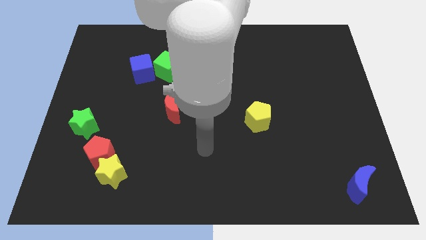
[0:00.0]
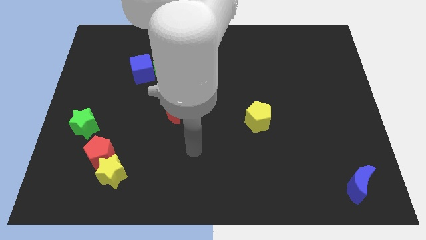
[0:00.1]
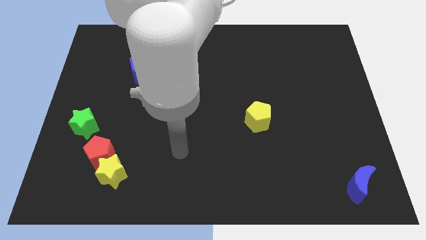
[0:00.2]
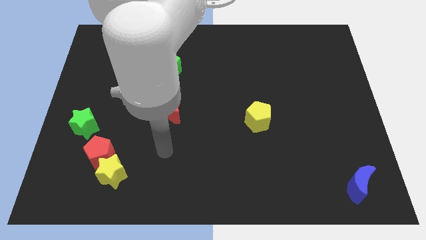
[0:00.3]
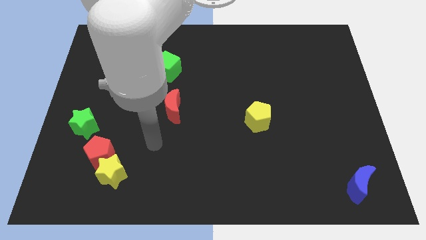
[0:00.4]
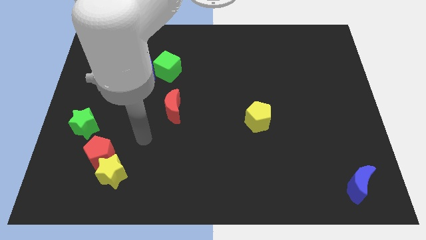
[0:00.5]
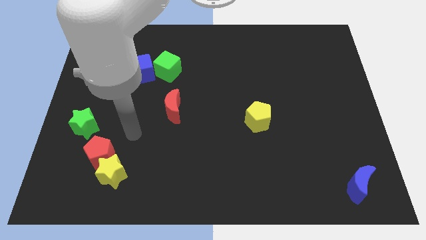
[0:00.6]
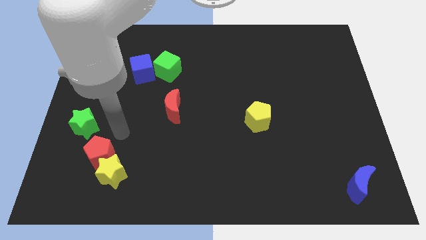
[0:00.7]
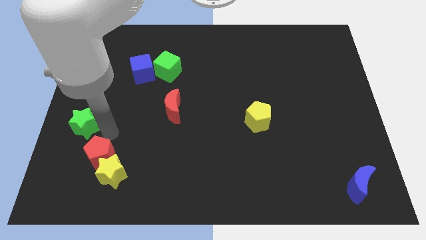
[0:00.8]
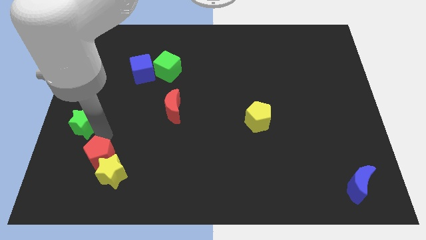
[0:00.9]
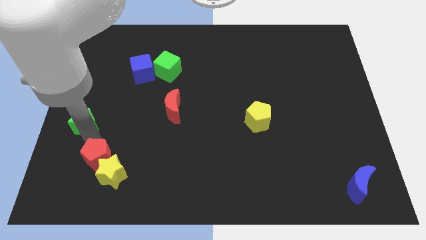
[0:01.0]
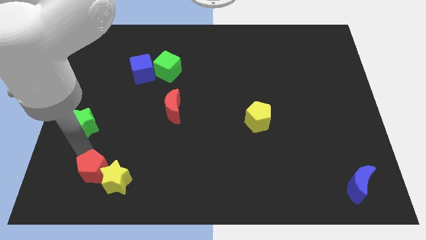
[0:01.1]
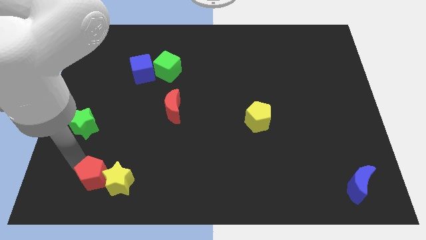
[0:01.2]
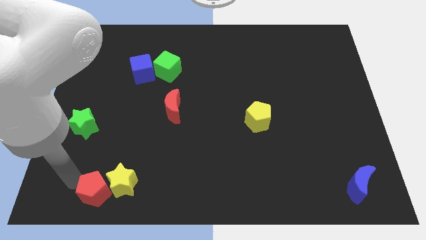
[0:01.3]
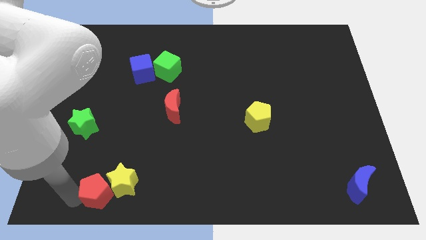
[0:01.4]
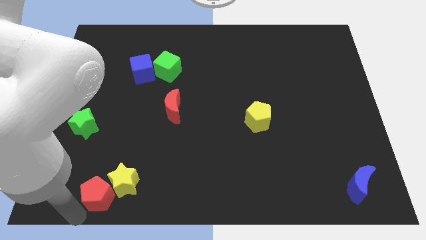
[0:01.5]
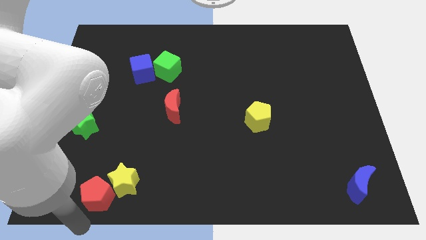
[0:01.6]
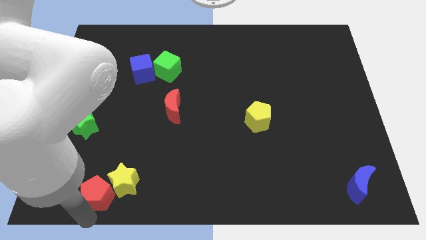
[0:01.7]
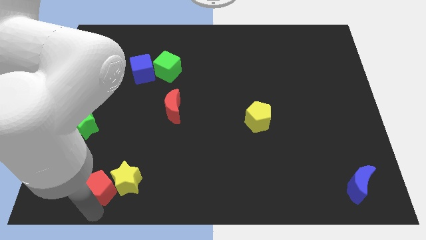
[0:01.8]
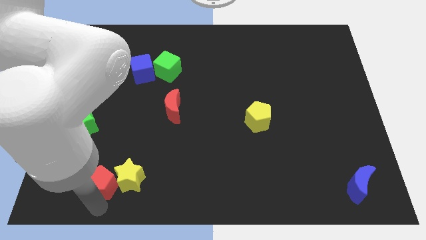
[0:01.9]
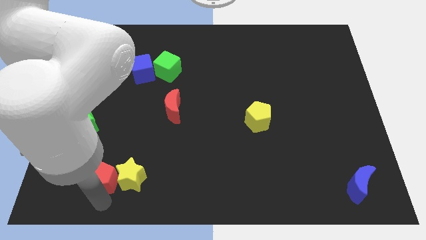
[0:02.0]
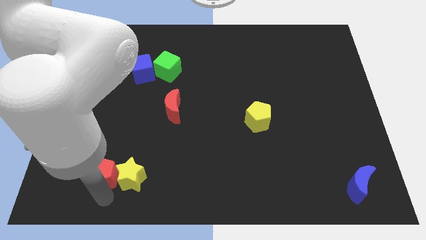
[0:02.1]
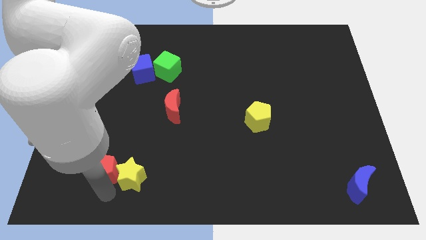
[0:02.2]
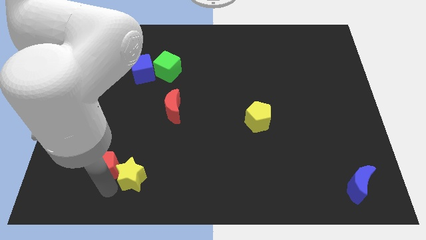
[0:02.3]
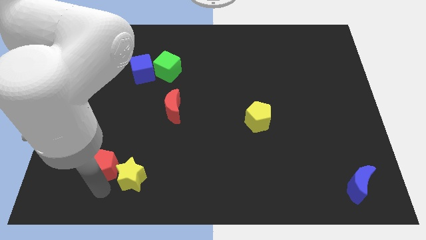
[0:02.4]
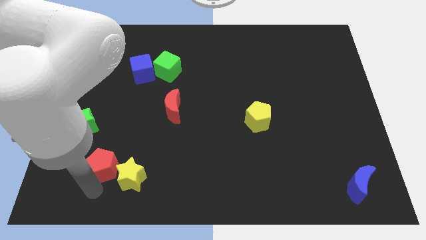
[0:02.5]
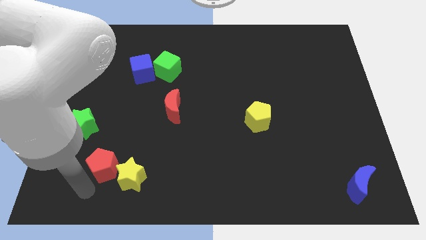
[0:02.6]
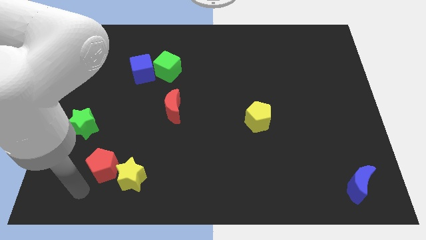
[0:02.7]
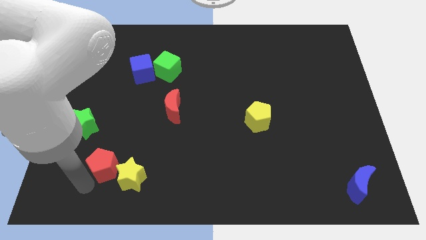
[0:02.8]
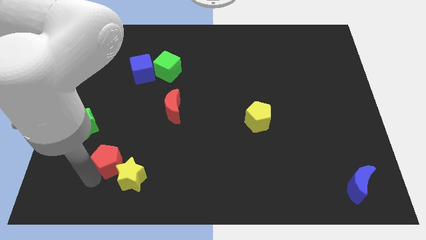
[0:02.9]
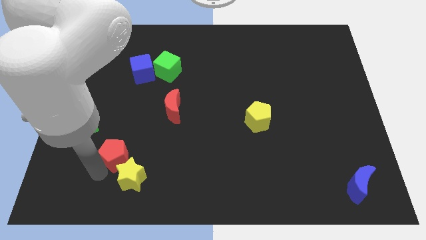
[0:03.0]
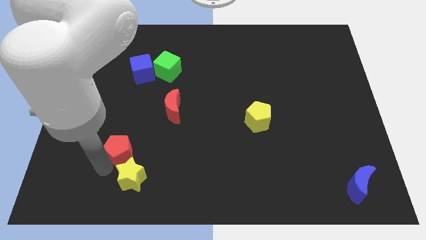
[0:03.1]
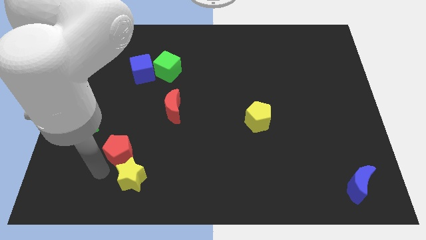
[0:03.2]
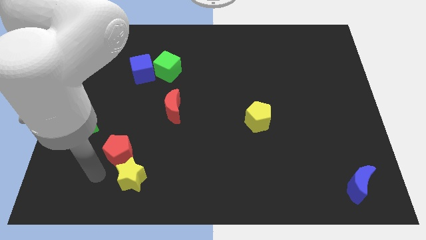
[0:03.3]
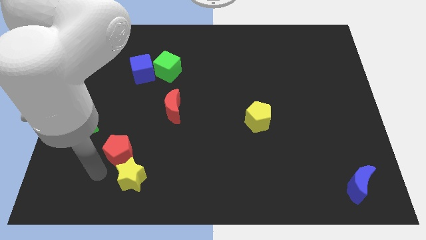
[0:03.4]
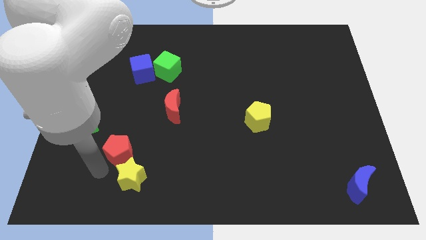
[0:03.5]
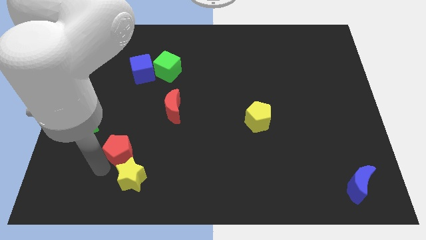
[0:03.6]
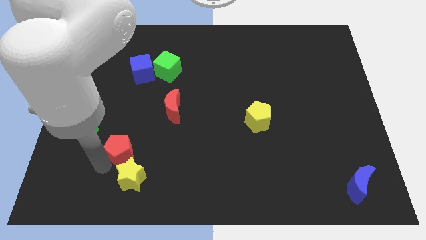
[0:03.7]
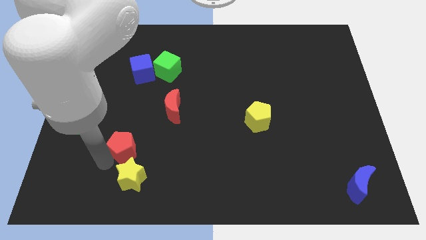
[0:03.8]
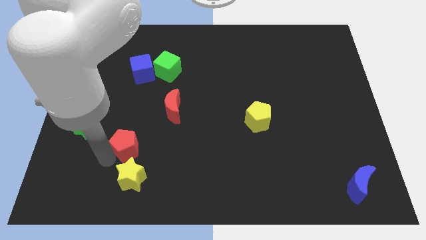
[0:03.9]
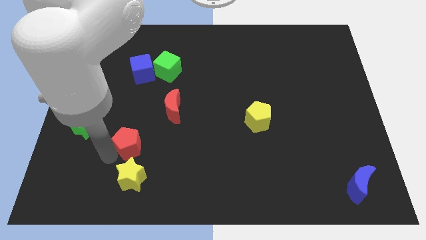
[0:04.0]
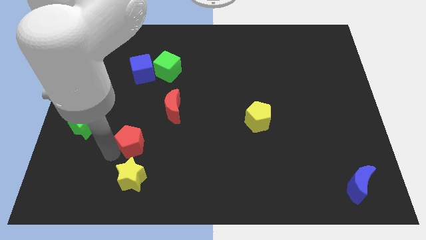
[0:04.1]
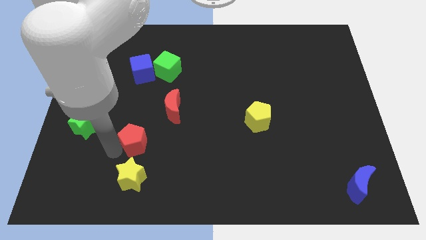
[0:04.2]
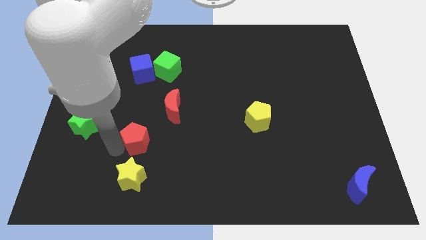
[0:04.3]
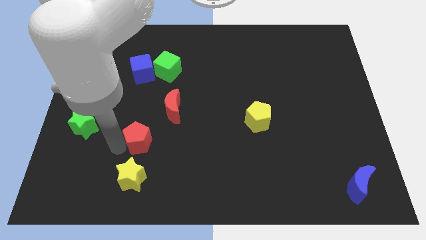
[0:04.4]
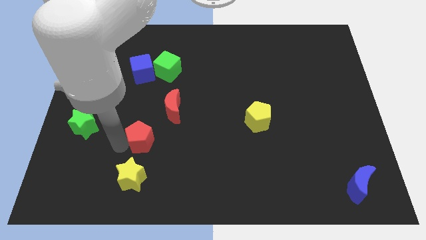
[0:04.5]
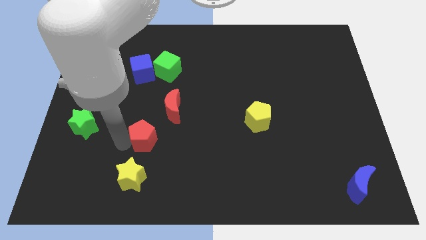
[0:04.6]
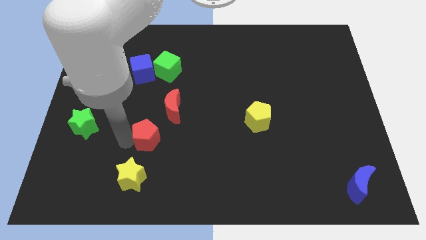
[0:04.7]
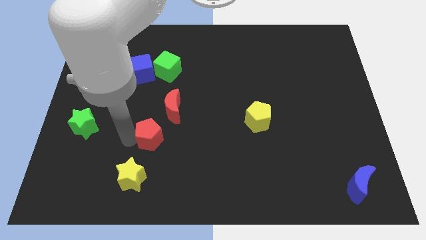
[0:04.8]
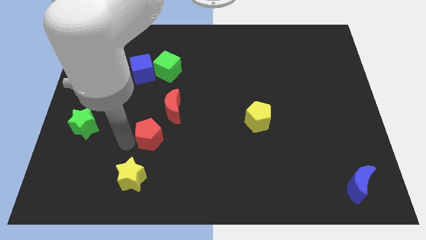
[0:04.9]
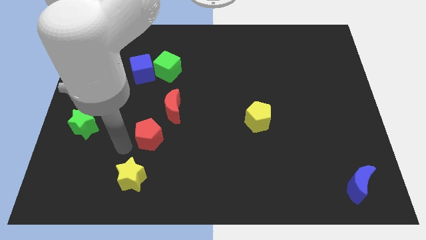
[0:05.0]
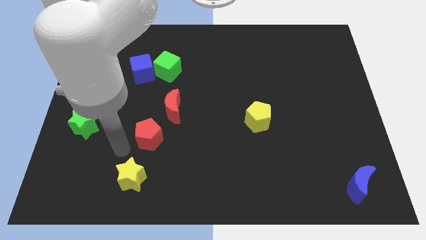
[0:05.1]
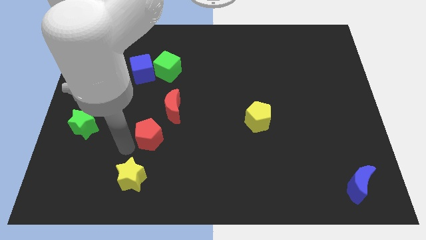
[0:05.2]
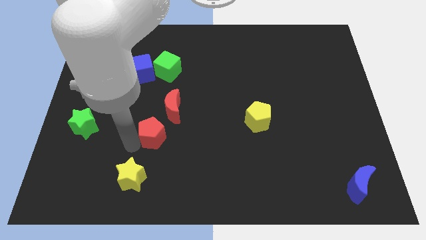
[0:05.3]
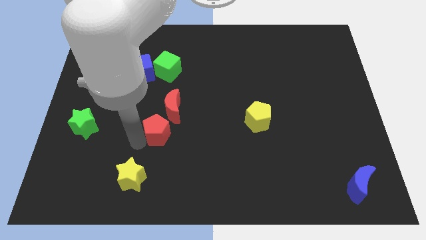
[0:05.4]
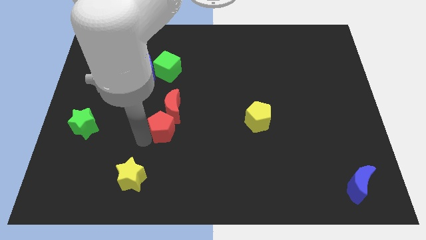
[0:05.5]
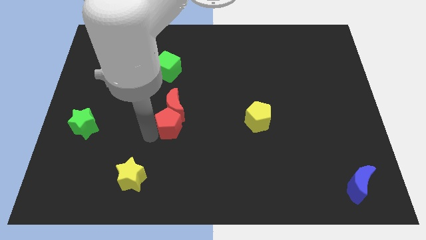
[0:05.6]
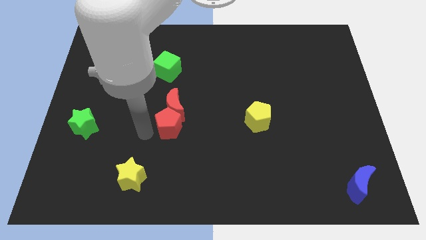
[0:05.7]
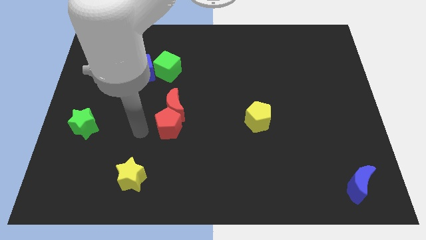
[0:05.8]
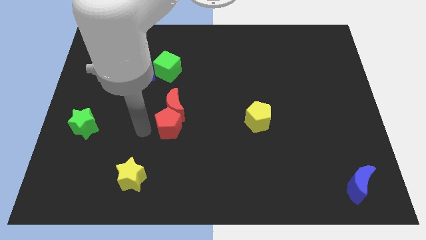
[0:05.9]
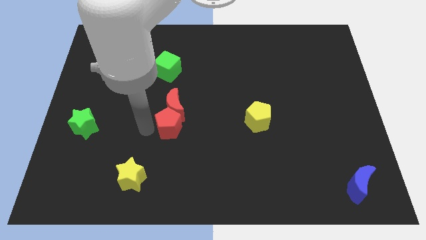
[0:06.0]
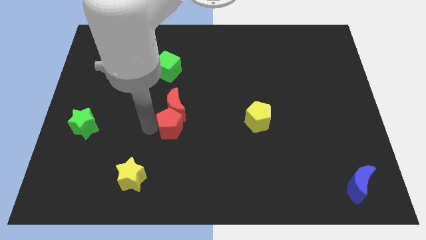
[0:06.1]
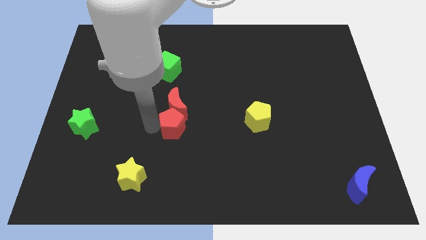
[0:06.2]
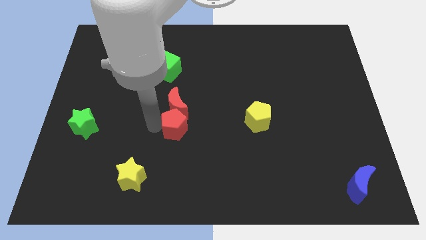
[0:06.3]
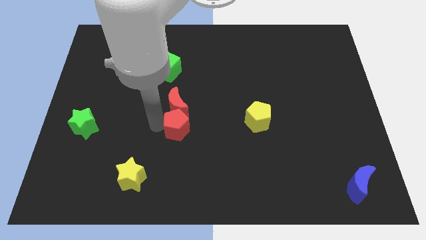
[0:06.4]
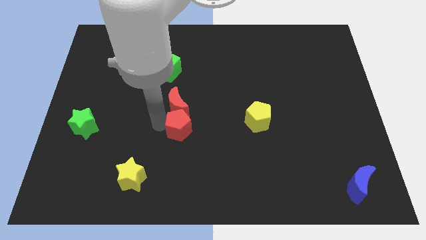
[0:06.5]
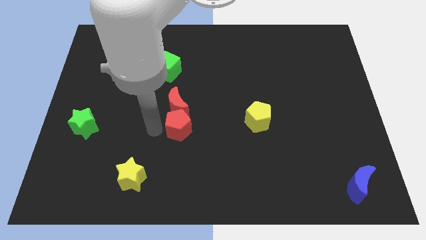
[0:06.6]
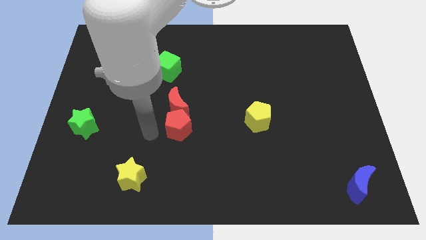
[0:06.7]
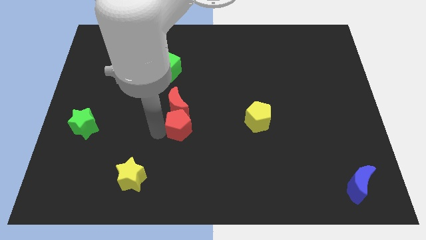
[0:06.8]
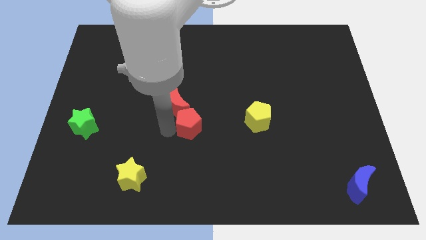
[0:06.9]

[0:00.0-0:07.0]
slide the red pentagon to the left side of the yellow pentagon
